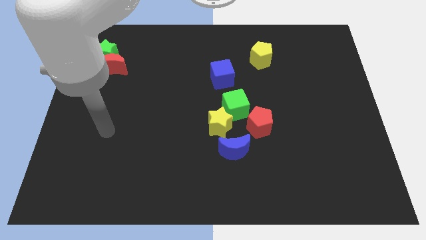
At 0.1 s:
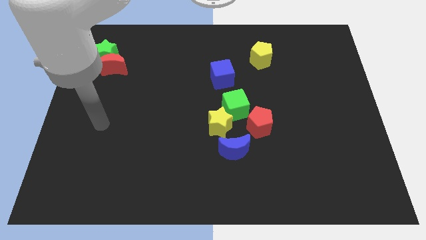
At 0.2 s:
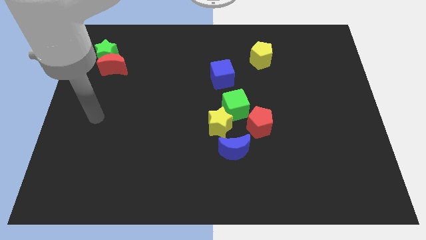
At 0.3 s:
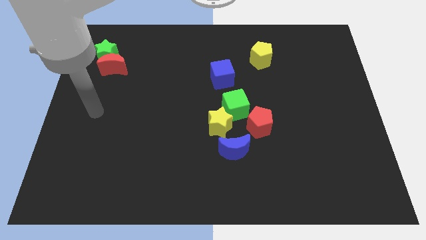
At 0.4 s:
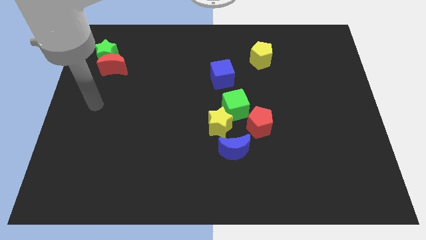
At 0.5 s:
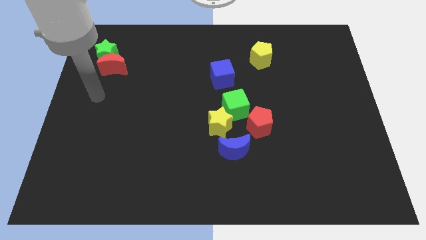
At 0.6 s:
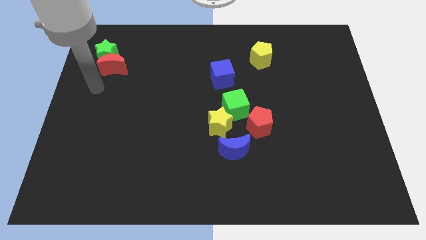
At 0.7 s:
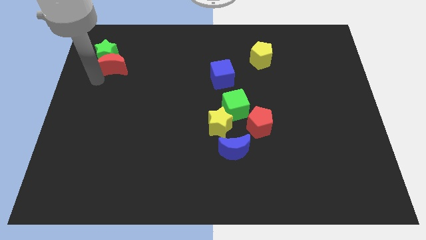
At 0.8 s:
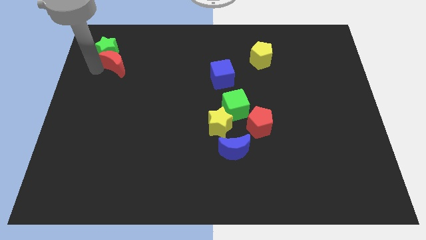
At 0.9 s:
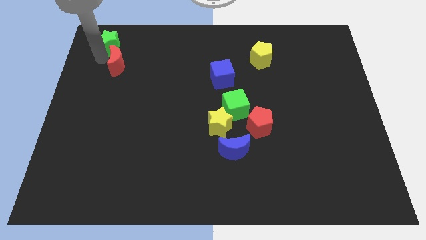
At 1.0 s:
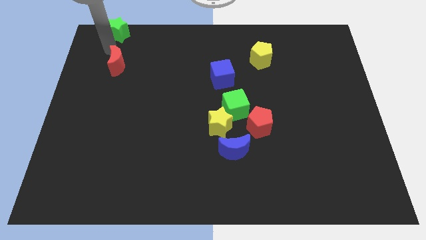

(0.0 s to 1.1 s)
separate the red moon from the green star

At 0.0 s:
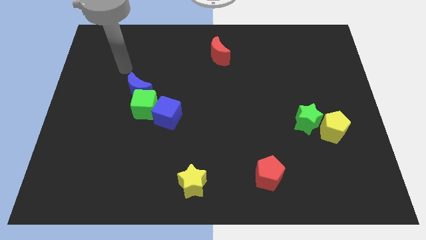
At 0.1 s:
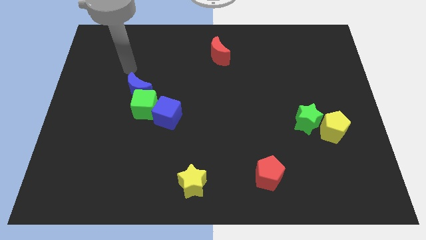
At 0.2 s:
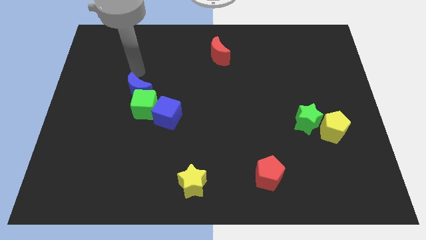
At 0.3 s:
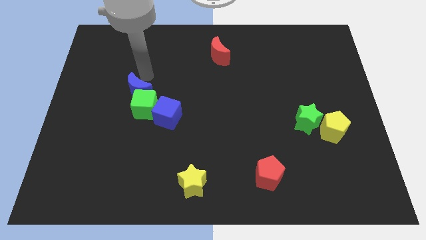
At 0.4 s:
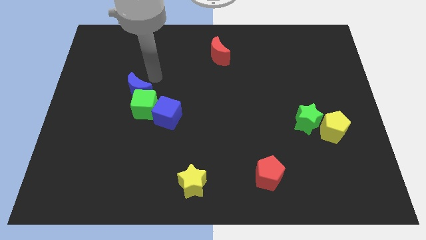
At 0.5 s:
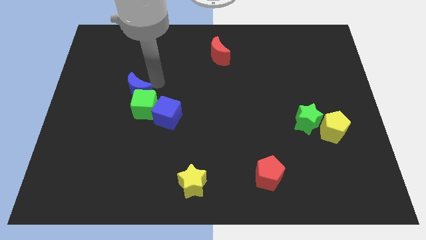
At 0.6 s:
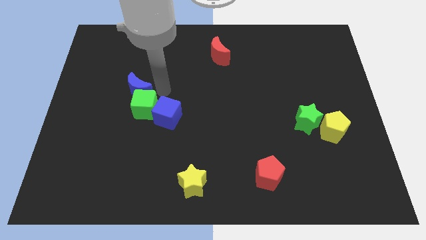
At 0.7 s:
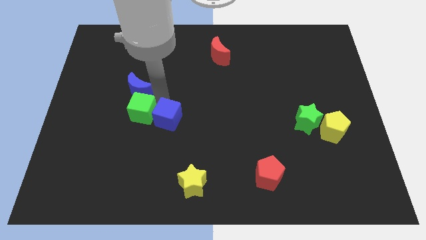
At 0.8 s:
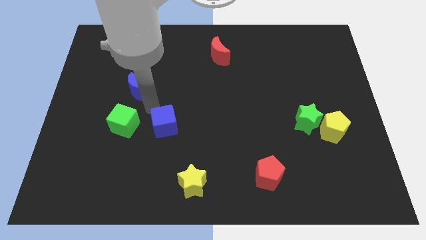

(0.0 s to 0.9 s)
move the blue moon away from the green cube

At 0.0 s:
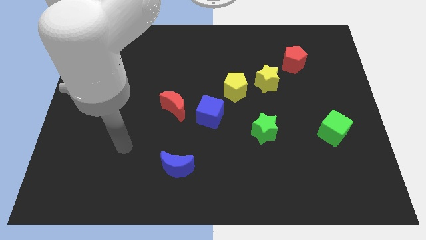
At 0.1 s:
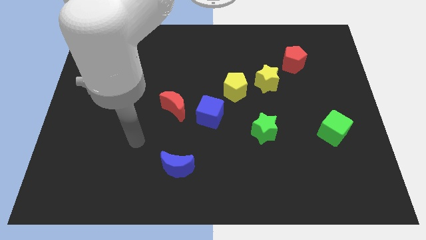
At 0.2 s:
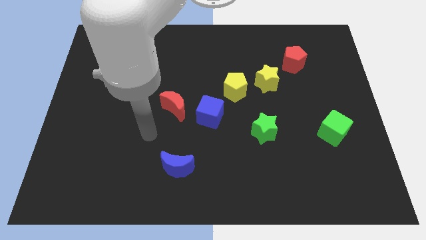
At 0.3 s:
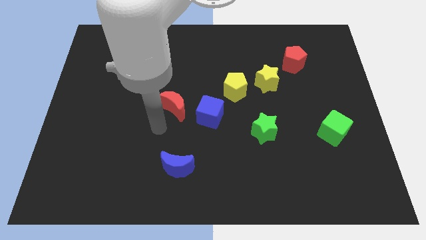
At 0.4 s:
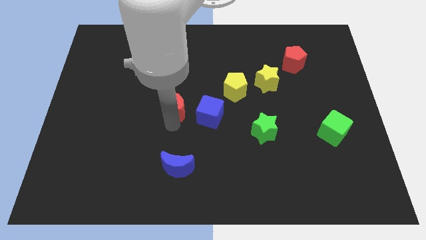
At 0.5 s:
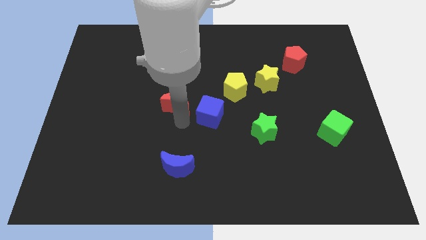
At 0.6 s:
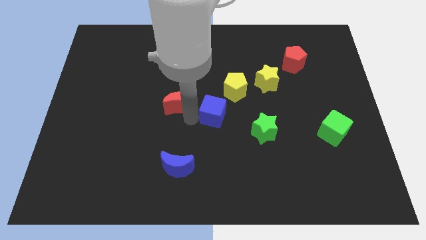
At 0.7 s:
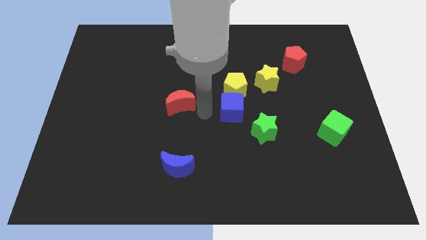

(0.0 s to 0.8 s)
move the red moon away from the blue cube

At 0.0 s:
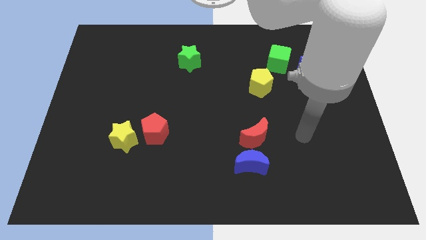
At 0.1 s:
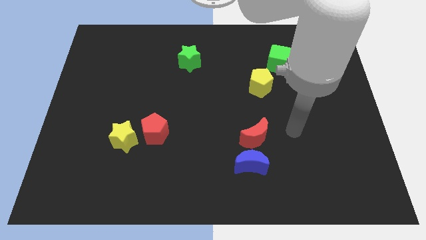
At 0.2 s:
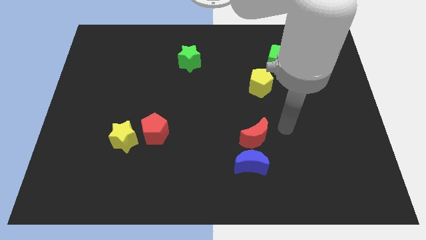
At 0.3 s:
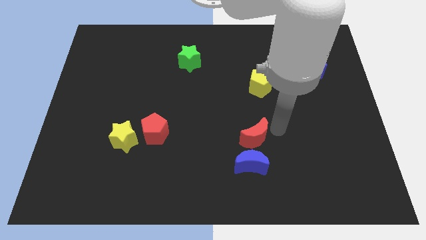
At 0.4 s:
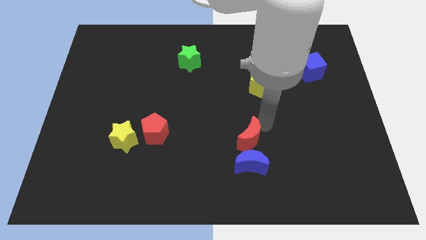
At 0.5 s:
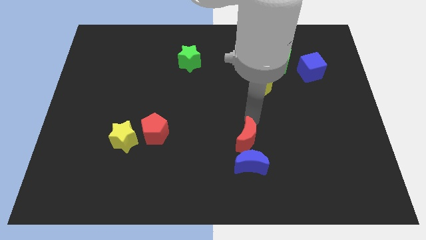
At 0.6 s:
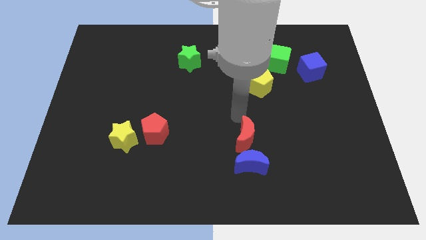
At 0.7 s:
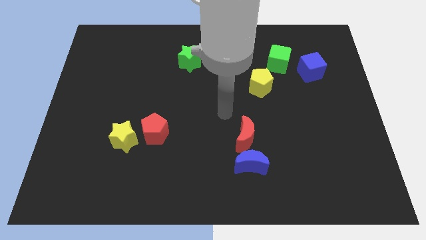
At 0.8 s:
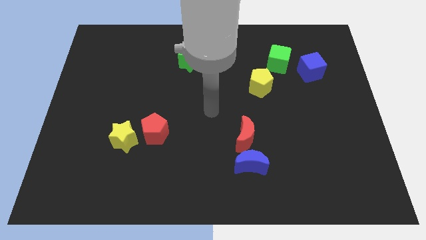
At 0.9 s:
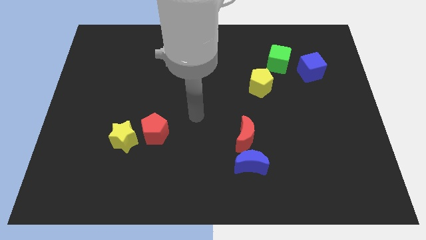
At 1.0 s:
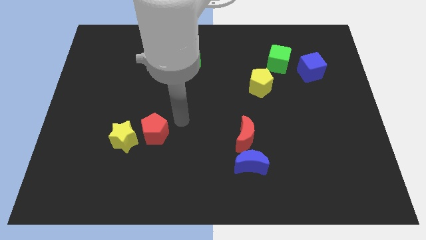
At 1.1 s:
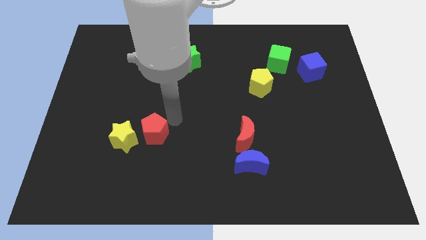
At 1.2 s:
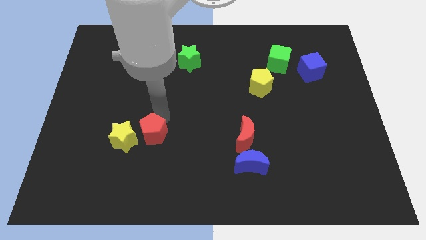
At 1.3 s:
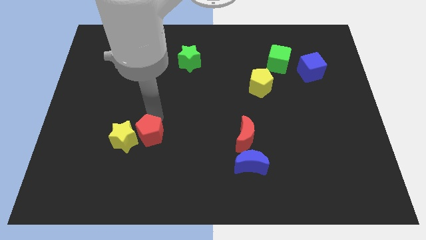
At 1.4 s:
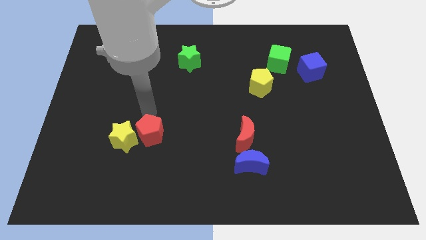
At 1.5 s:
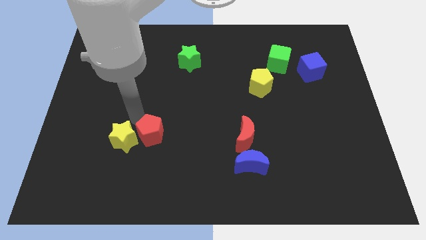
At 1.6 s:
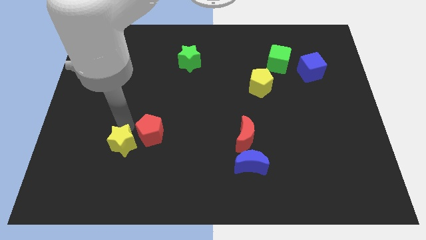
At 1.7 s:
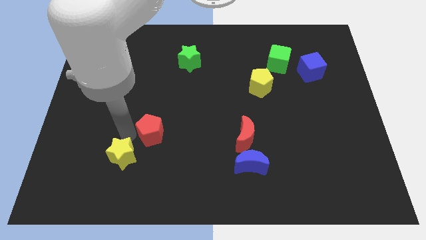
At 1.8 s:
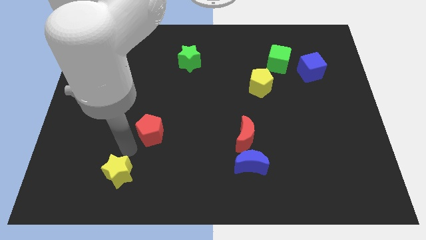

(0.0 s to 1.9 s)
pull the red pentagon apart from the yellow star

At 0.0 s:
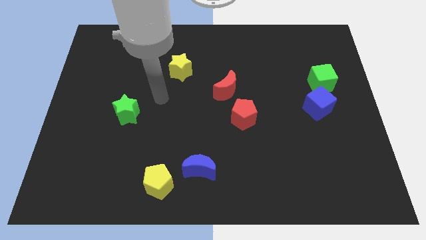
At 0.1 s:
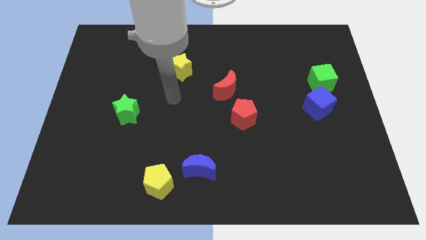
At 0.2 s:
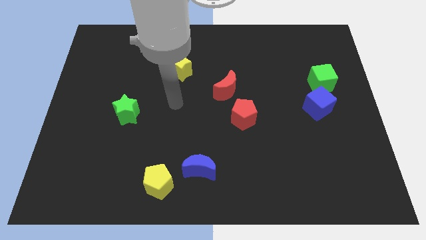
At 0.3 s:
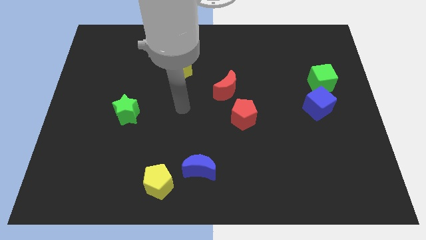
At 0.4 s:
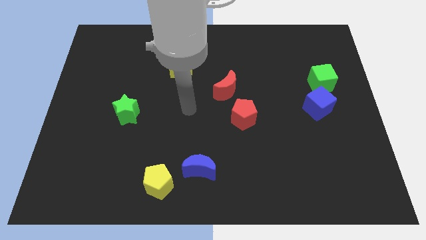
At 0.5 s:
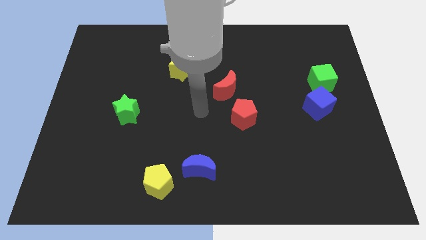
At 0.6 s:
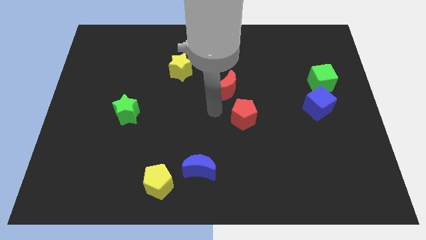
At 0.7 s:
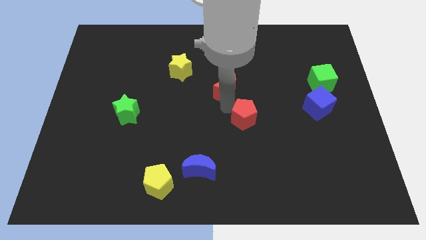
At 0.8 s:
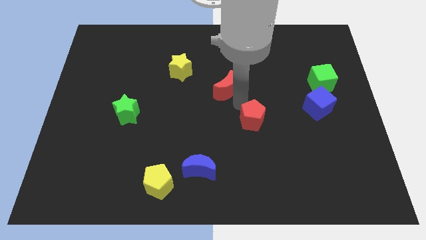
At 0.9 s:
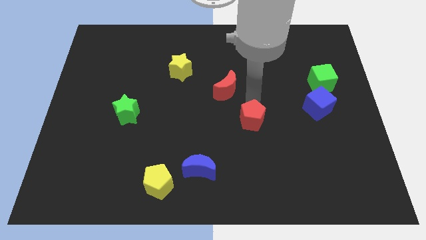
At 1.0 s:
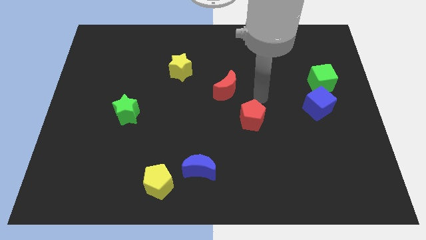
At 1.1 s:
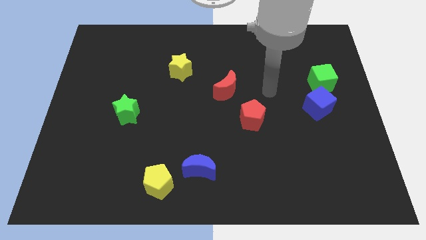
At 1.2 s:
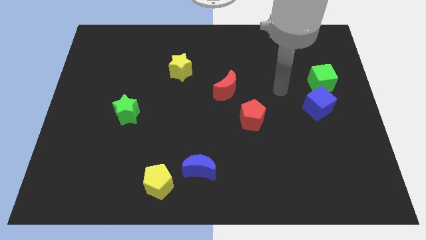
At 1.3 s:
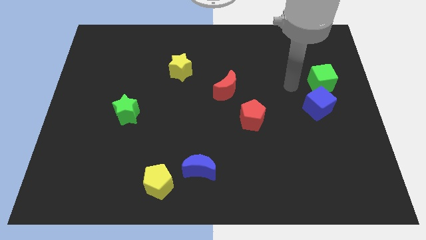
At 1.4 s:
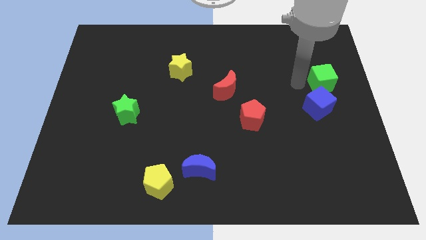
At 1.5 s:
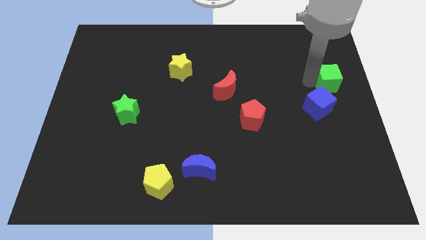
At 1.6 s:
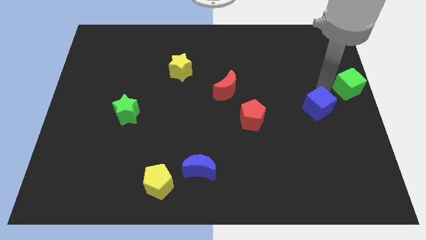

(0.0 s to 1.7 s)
pull the blue cube apart from the green cube

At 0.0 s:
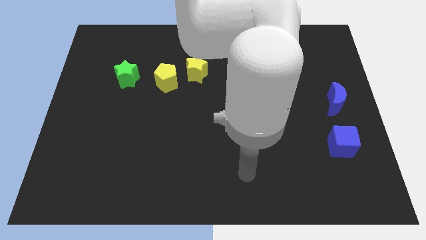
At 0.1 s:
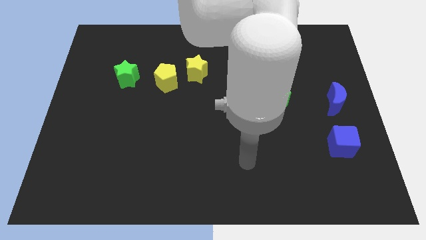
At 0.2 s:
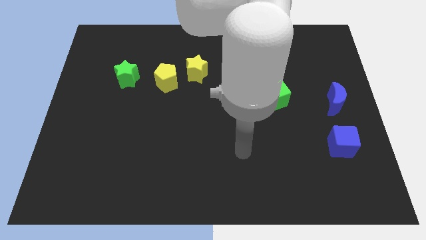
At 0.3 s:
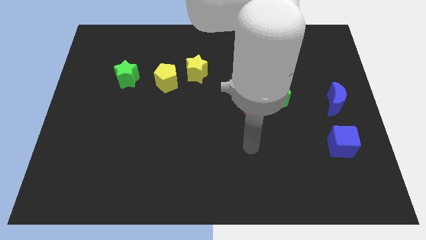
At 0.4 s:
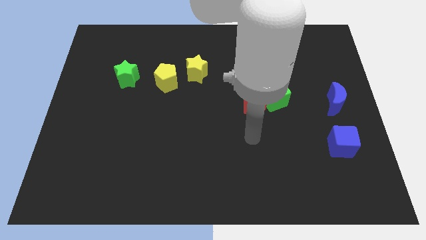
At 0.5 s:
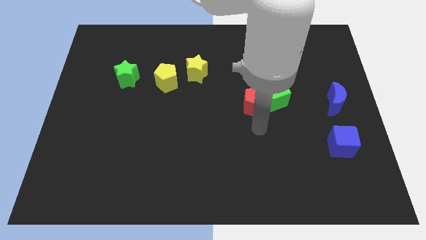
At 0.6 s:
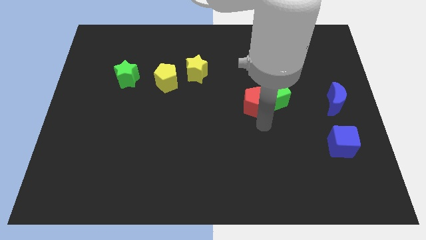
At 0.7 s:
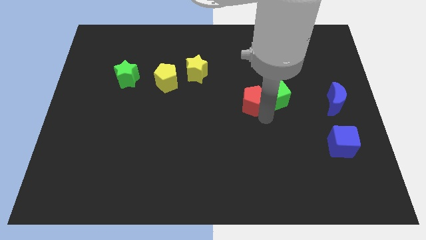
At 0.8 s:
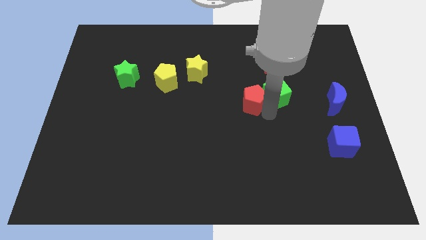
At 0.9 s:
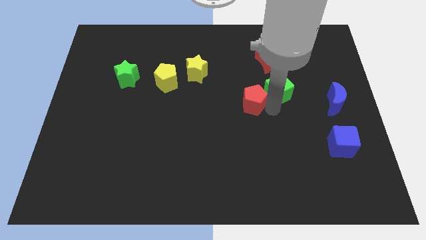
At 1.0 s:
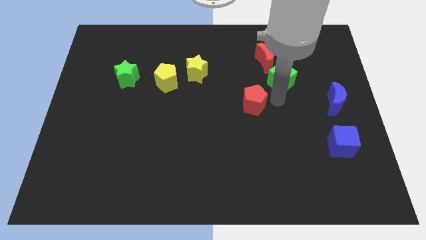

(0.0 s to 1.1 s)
pull the red pentagon apart from the green cube

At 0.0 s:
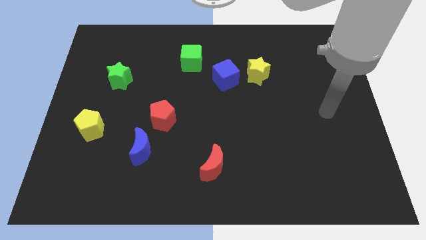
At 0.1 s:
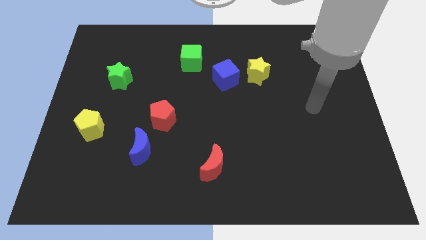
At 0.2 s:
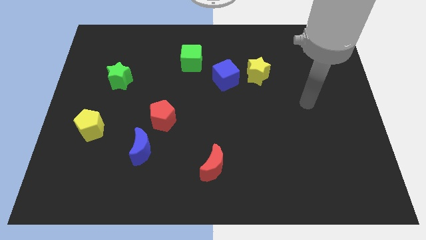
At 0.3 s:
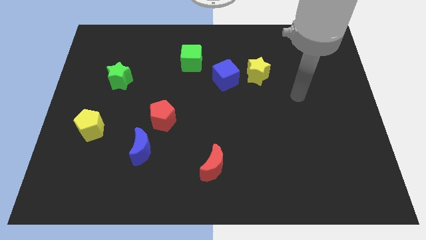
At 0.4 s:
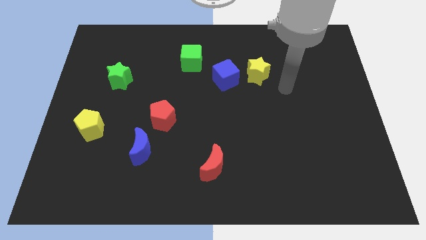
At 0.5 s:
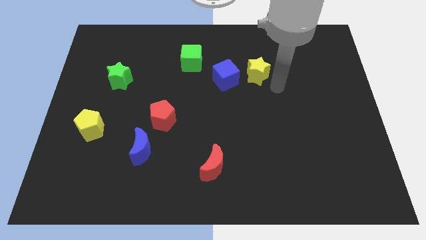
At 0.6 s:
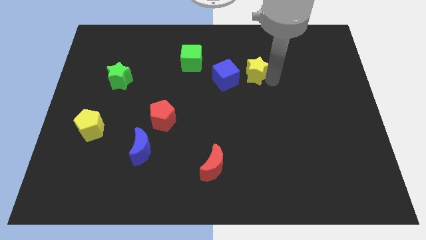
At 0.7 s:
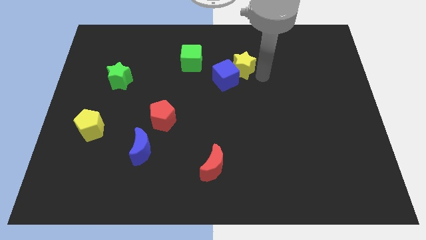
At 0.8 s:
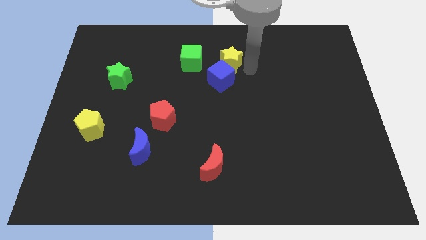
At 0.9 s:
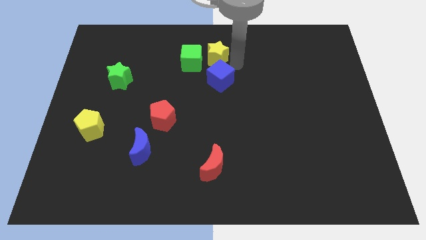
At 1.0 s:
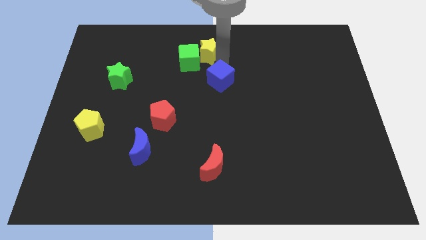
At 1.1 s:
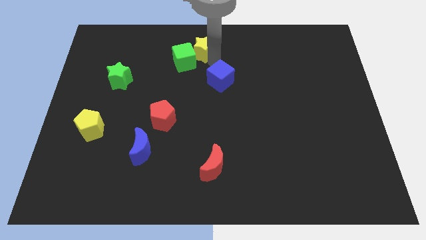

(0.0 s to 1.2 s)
separate the blue cube from the yellow star

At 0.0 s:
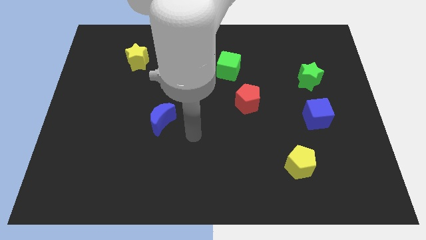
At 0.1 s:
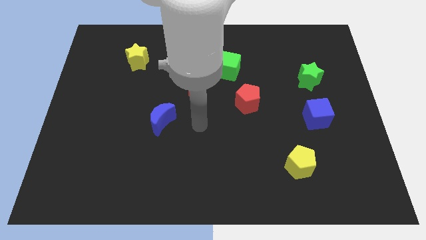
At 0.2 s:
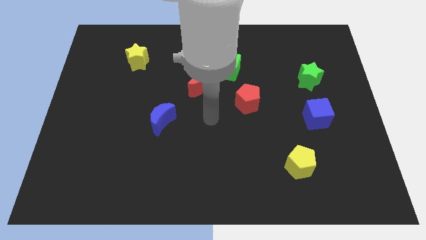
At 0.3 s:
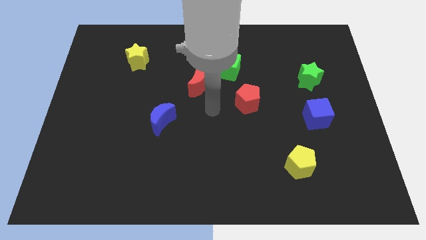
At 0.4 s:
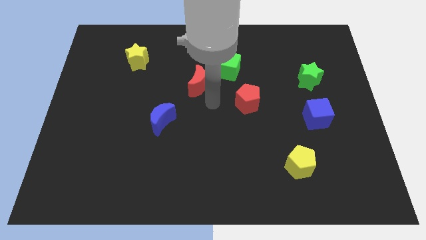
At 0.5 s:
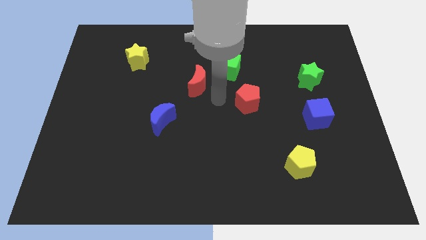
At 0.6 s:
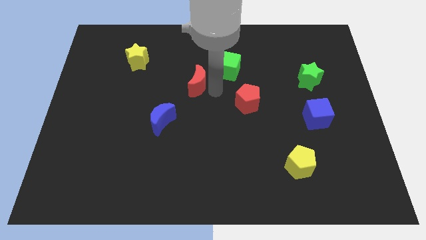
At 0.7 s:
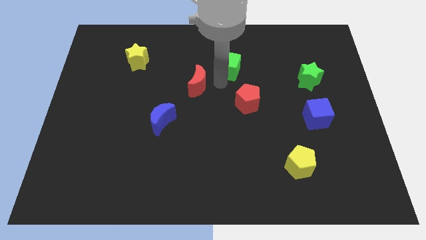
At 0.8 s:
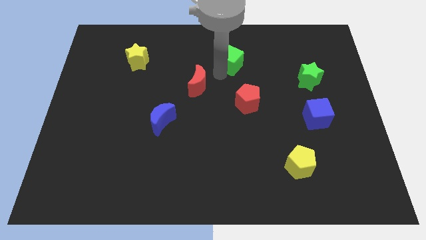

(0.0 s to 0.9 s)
pull the red moon apart from the green cube
